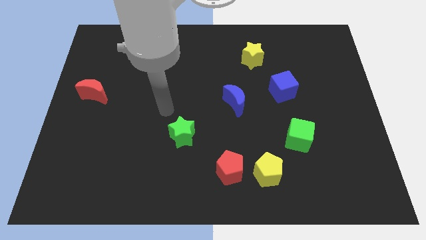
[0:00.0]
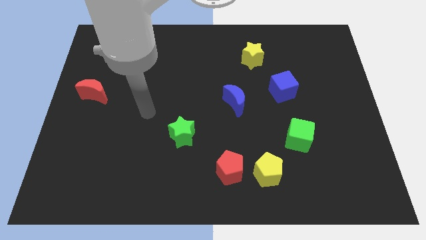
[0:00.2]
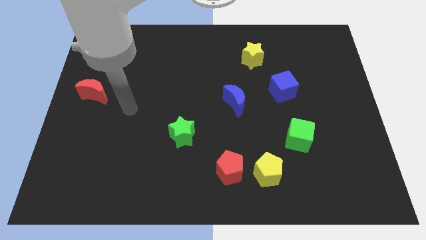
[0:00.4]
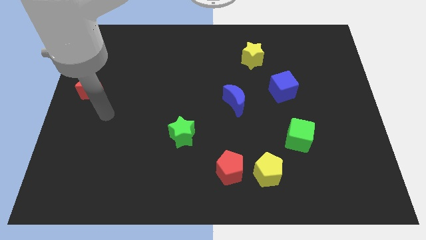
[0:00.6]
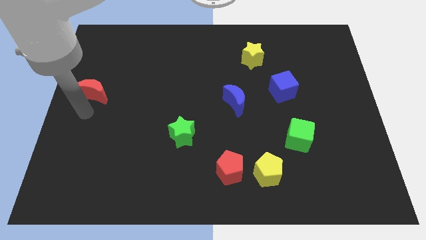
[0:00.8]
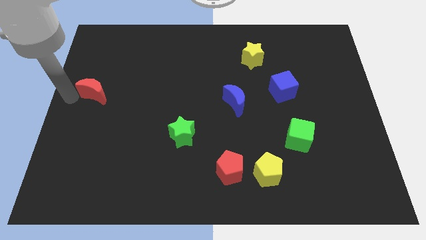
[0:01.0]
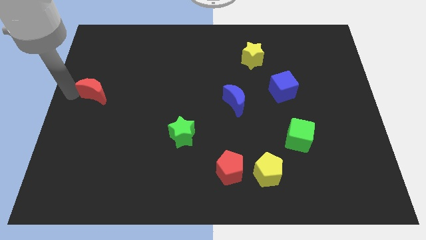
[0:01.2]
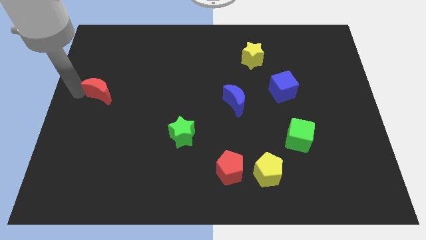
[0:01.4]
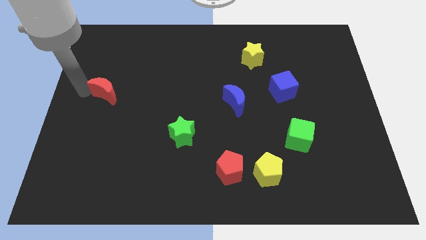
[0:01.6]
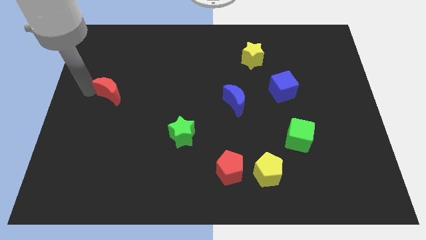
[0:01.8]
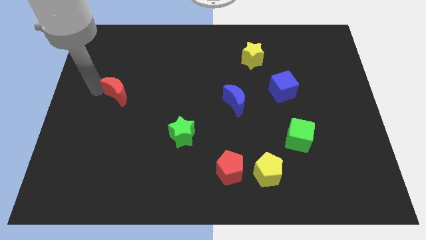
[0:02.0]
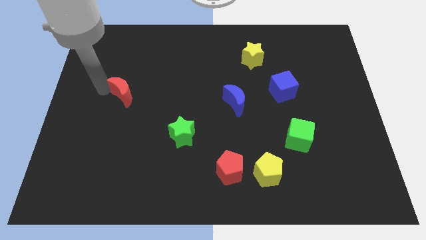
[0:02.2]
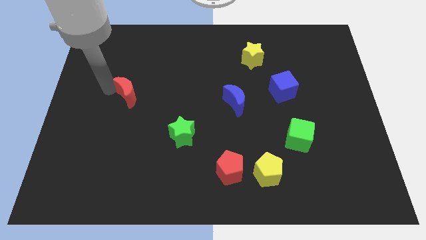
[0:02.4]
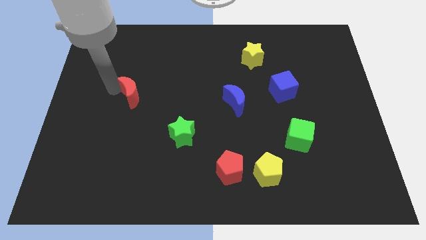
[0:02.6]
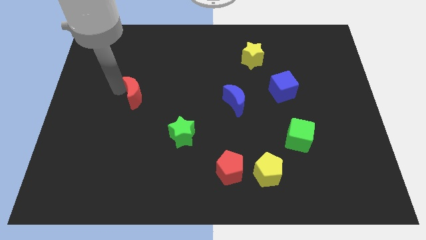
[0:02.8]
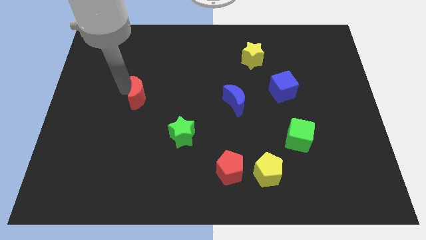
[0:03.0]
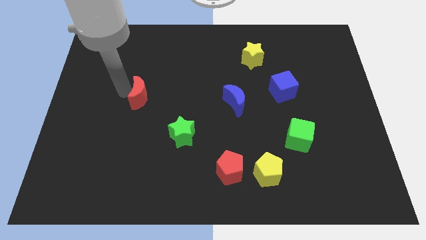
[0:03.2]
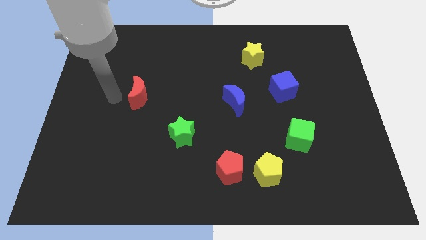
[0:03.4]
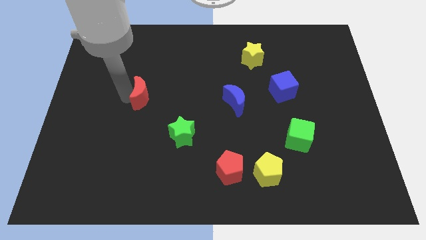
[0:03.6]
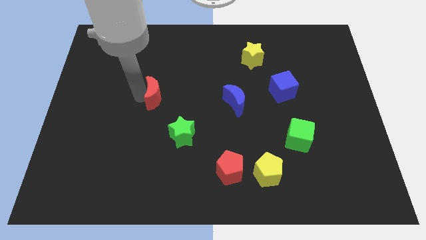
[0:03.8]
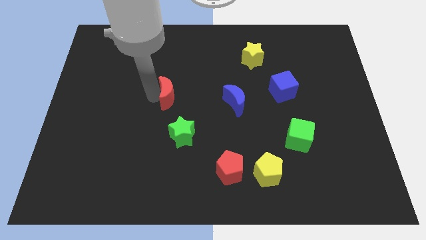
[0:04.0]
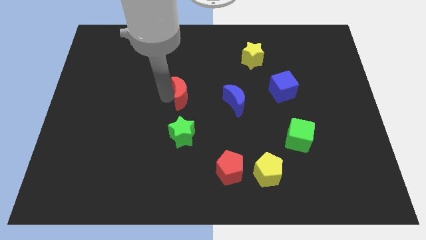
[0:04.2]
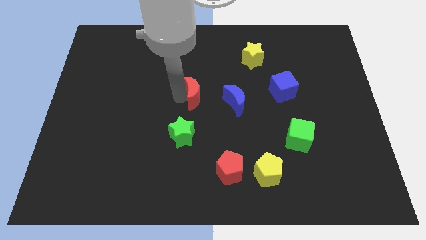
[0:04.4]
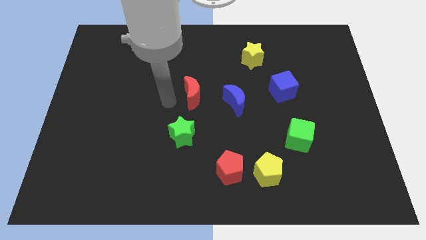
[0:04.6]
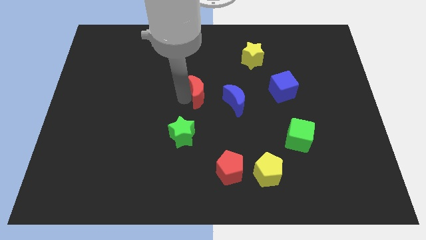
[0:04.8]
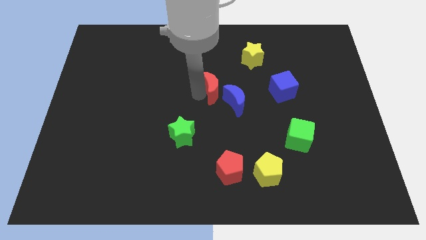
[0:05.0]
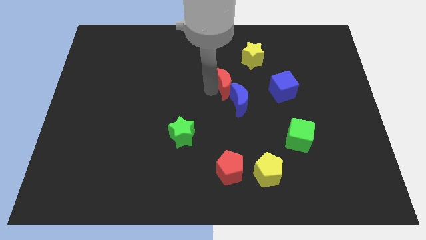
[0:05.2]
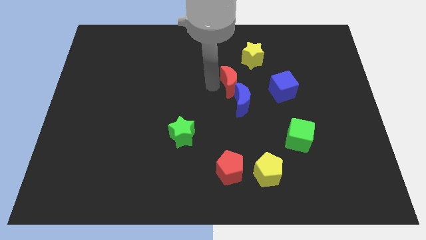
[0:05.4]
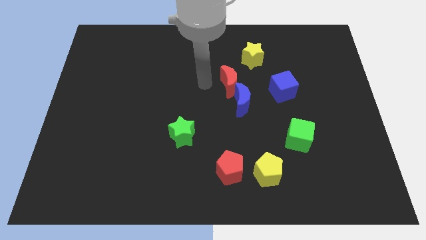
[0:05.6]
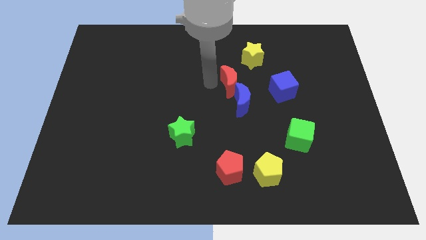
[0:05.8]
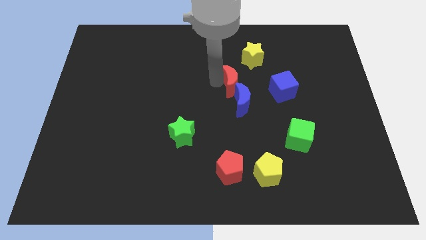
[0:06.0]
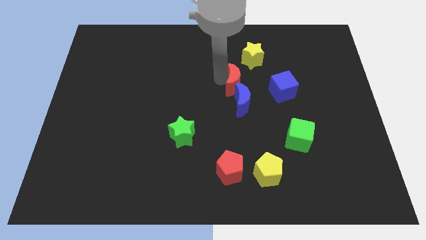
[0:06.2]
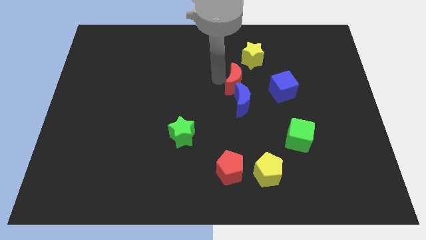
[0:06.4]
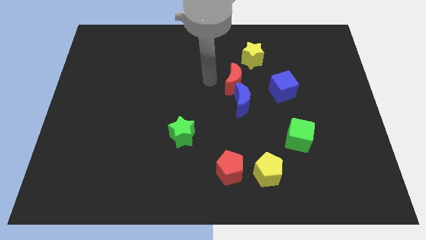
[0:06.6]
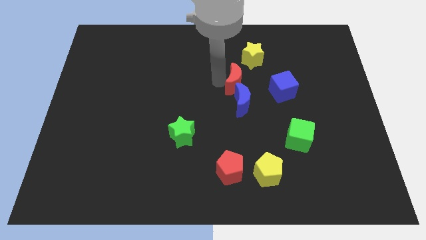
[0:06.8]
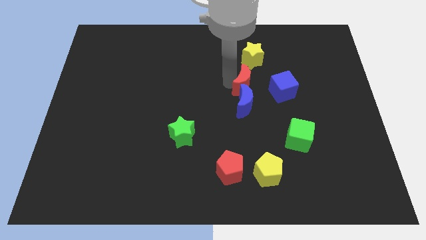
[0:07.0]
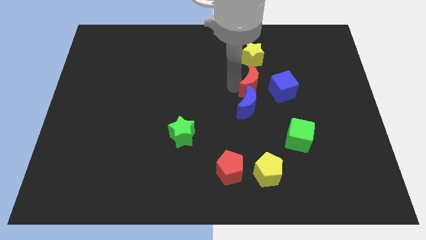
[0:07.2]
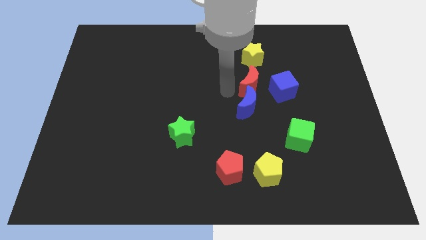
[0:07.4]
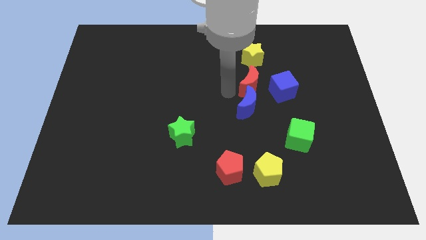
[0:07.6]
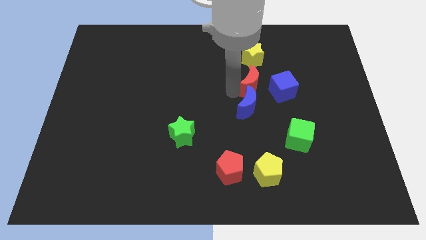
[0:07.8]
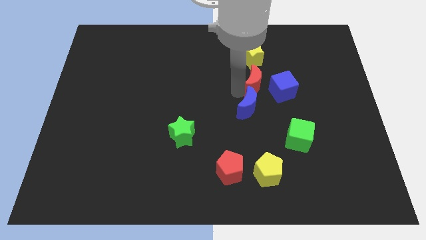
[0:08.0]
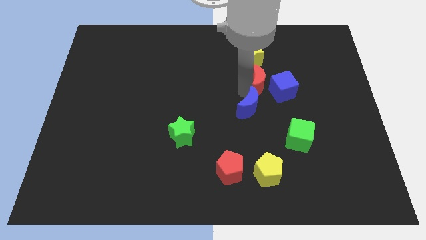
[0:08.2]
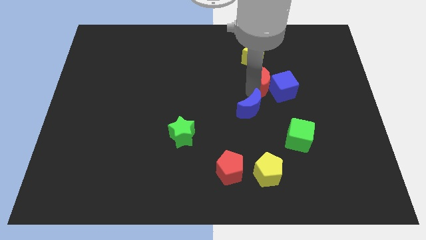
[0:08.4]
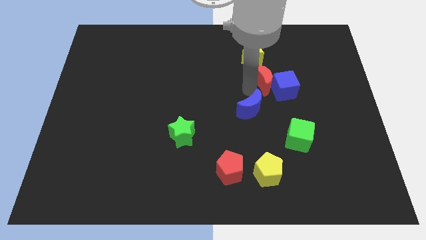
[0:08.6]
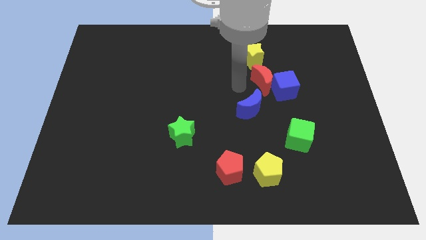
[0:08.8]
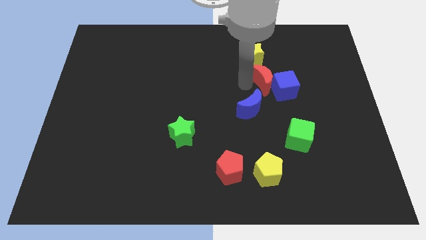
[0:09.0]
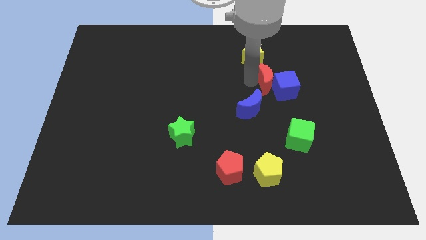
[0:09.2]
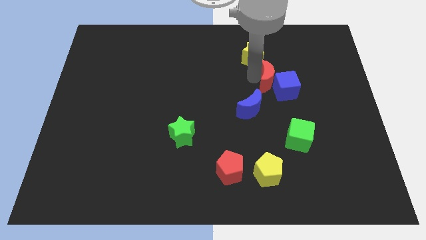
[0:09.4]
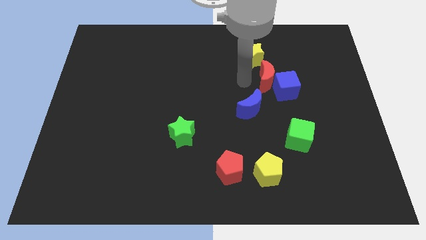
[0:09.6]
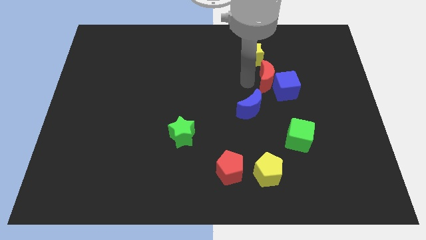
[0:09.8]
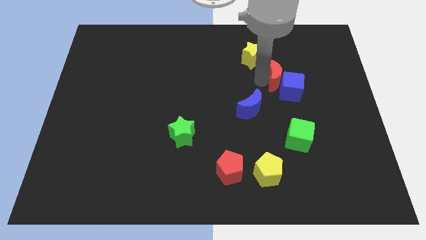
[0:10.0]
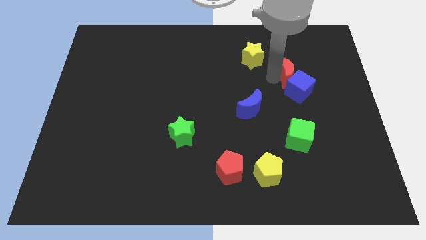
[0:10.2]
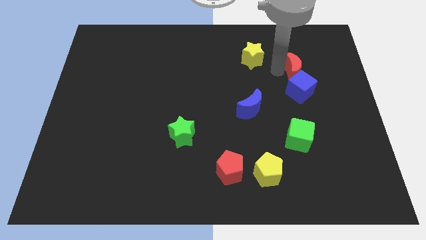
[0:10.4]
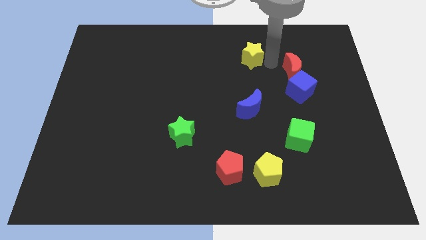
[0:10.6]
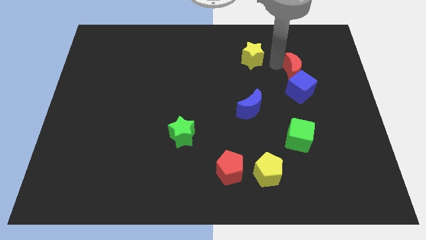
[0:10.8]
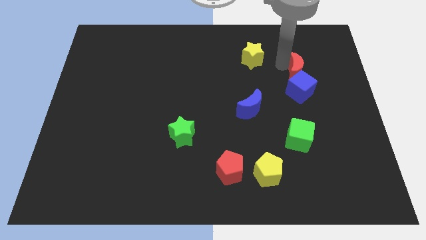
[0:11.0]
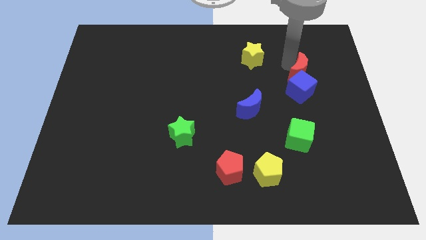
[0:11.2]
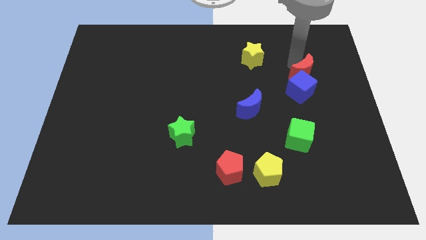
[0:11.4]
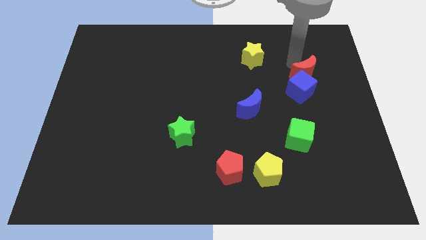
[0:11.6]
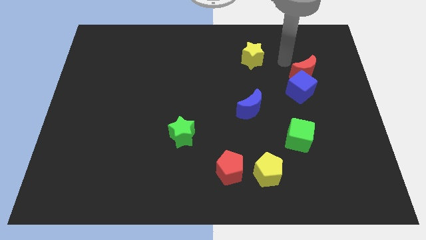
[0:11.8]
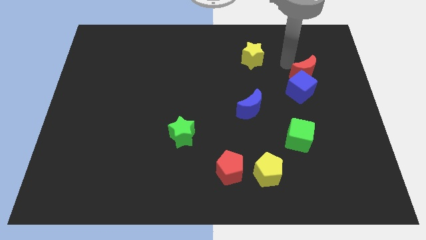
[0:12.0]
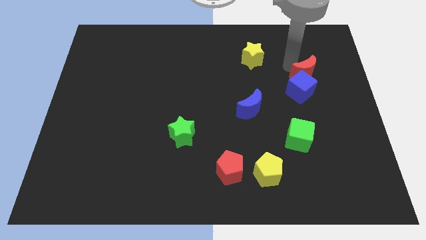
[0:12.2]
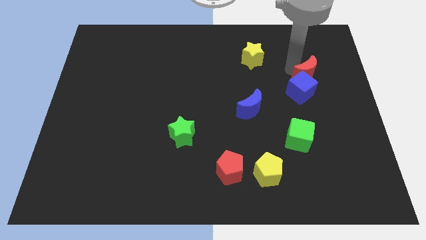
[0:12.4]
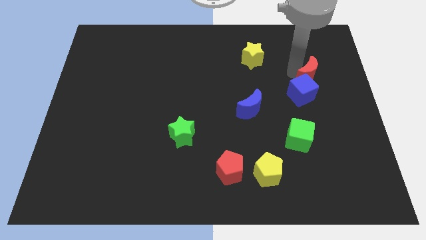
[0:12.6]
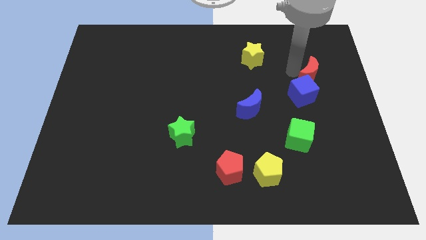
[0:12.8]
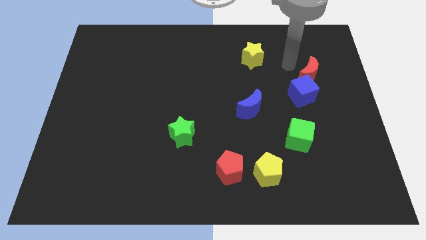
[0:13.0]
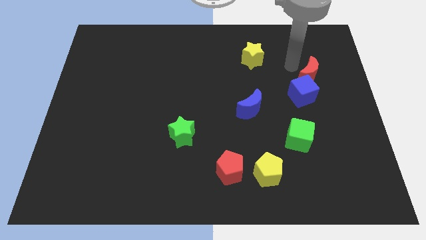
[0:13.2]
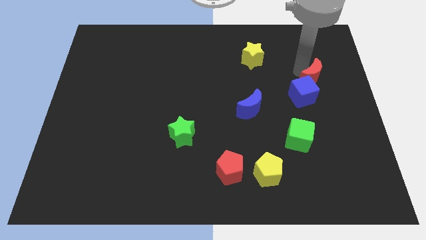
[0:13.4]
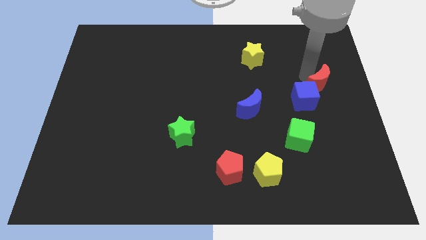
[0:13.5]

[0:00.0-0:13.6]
put the red moon to the right side of the board

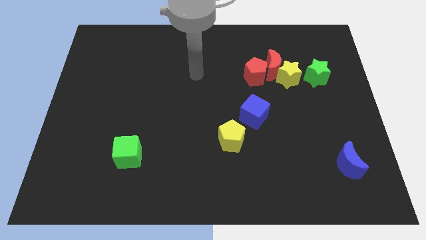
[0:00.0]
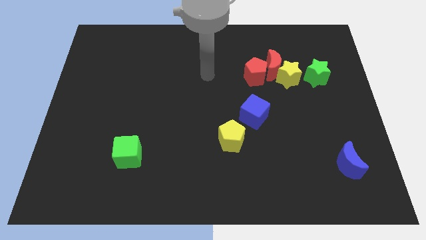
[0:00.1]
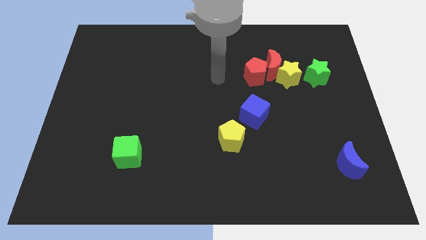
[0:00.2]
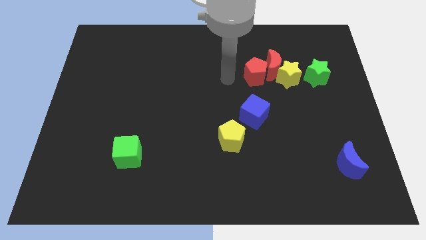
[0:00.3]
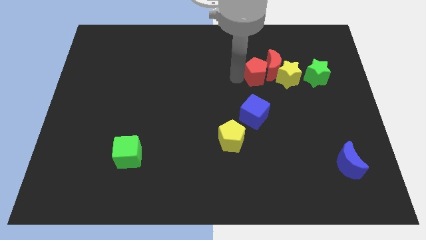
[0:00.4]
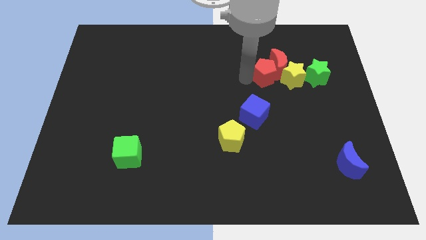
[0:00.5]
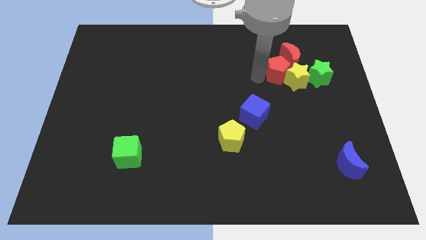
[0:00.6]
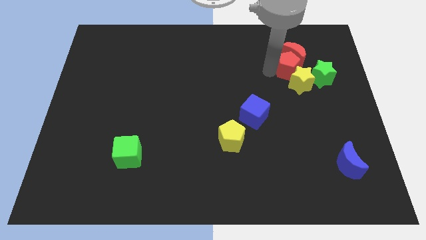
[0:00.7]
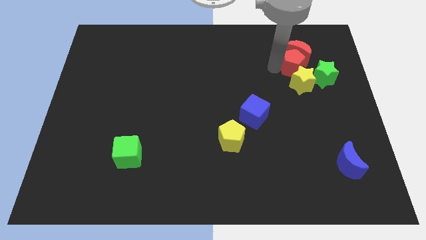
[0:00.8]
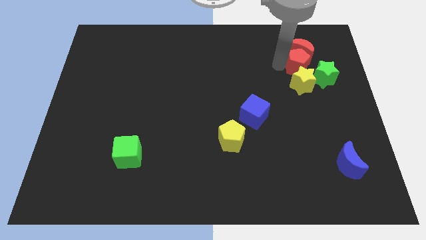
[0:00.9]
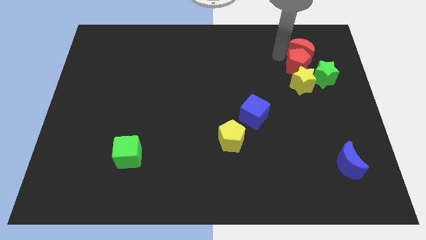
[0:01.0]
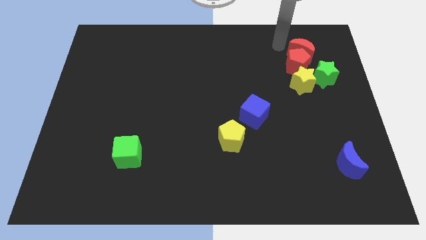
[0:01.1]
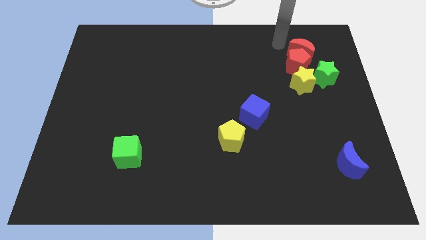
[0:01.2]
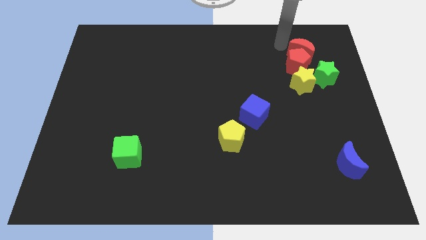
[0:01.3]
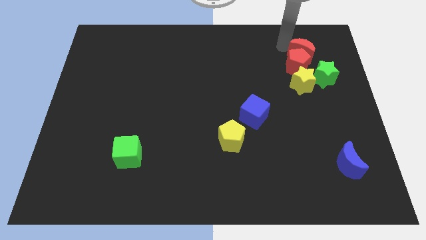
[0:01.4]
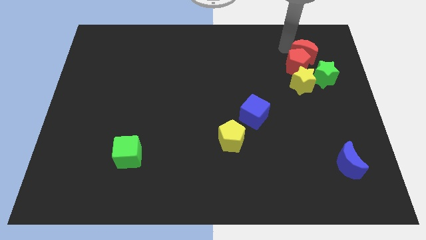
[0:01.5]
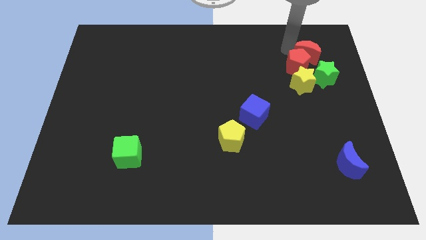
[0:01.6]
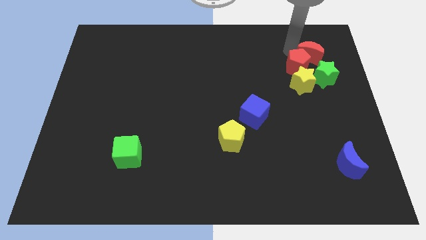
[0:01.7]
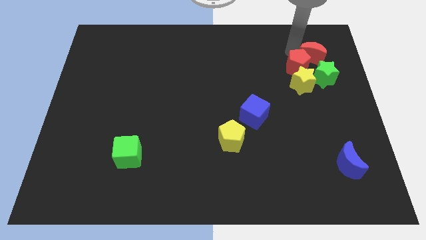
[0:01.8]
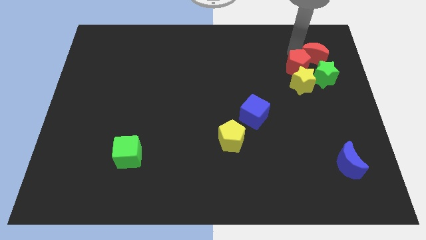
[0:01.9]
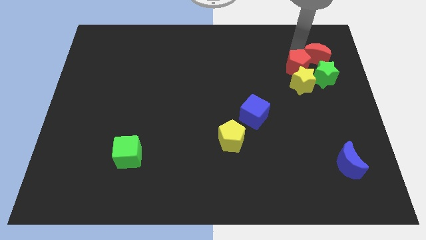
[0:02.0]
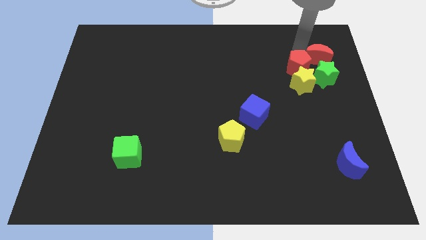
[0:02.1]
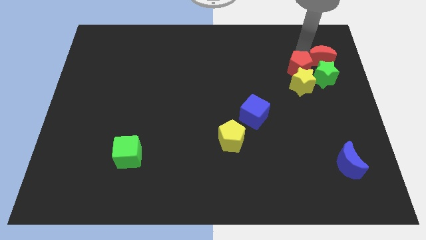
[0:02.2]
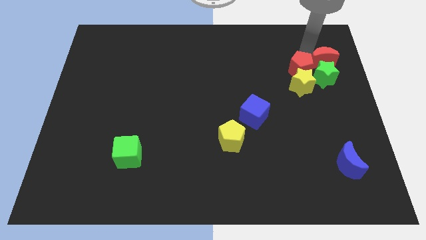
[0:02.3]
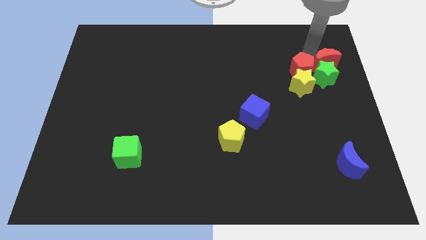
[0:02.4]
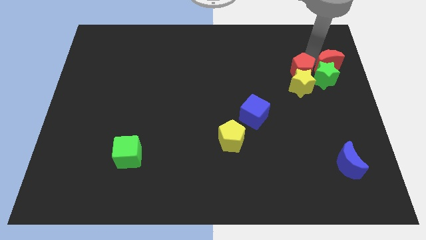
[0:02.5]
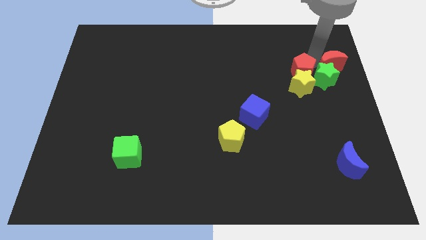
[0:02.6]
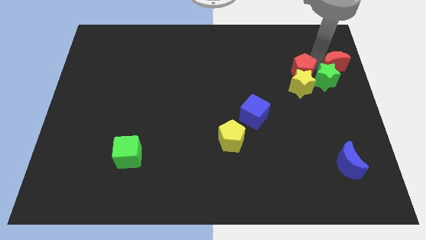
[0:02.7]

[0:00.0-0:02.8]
put the red moon to the right side
